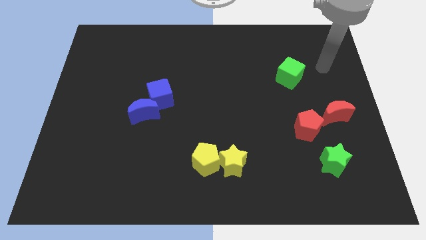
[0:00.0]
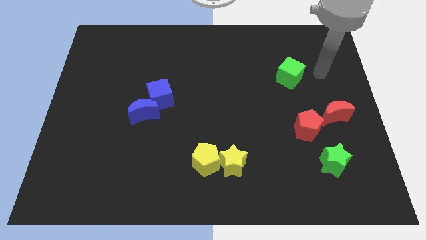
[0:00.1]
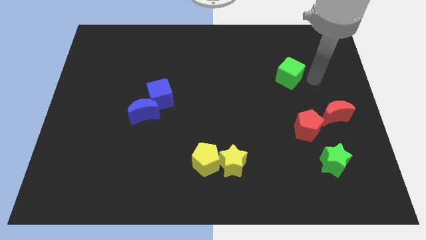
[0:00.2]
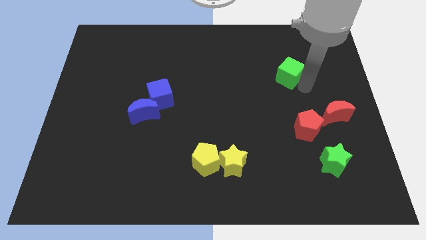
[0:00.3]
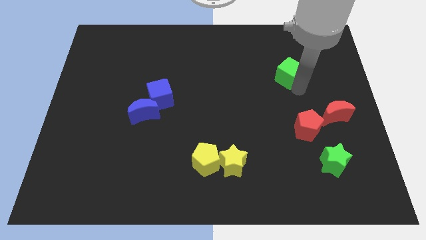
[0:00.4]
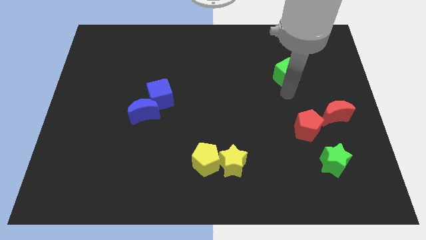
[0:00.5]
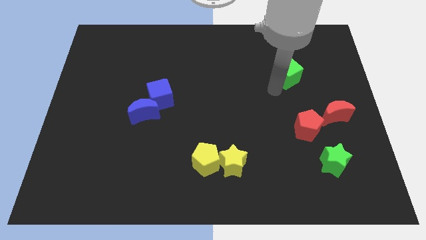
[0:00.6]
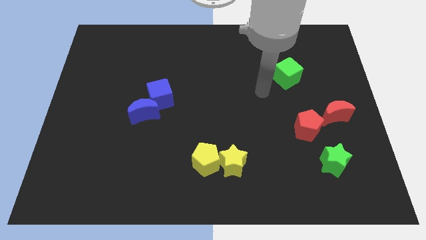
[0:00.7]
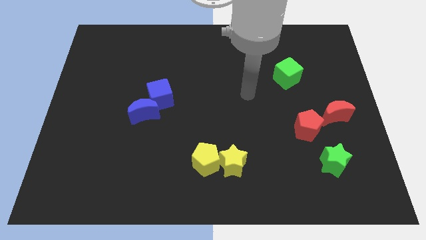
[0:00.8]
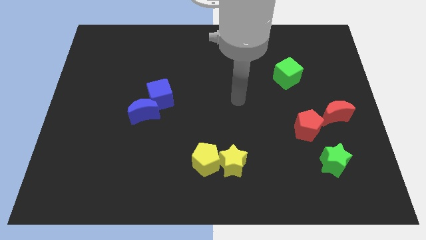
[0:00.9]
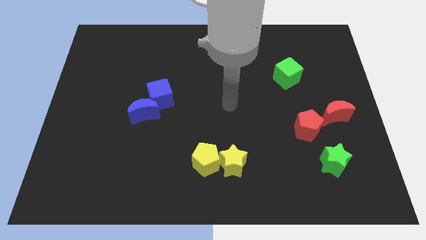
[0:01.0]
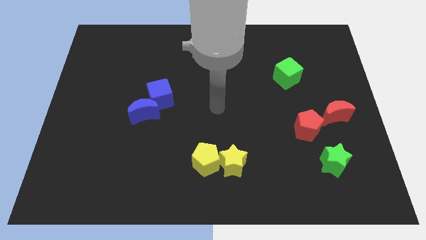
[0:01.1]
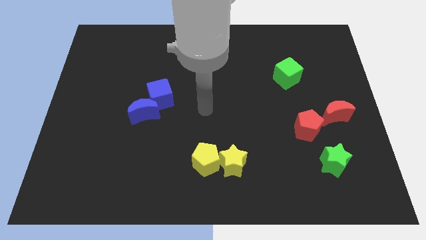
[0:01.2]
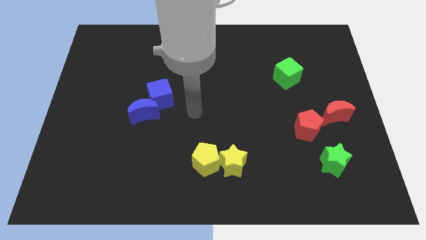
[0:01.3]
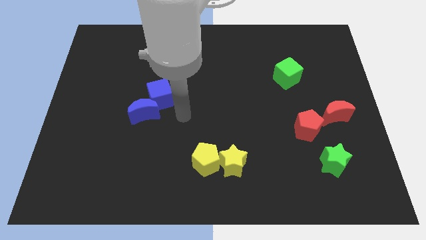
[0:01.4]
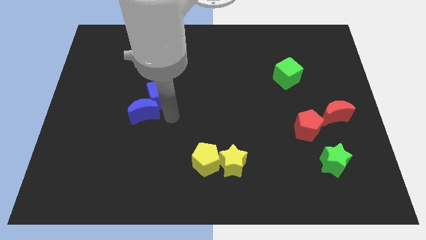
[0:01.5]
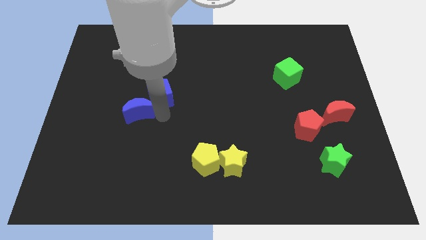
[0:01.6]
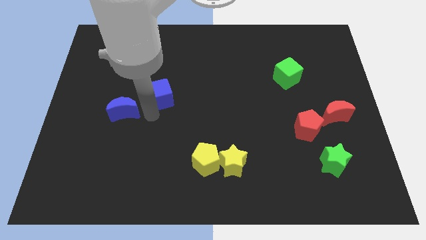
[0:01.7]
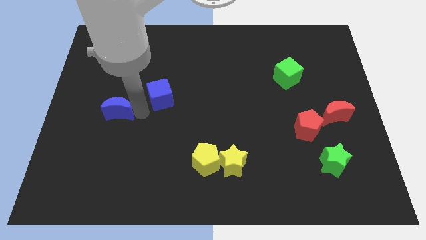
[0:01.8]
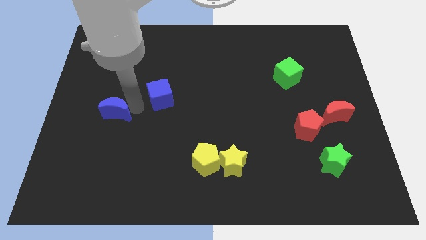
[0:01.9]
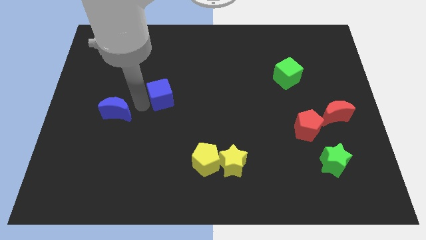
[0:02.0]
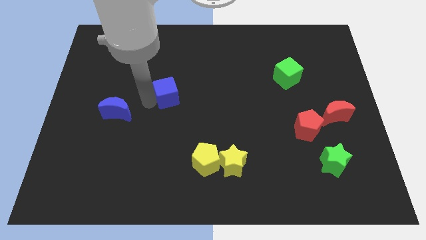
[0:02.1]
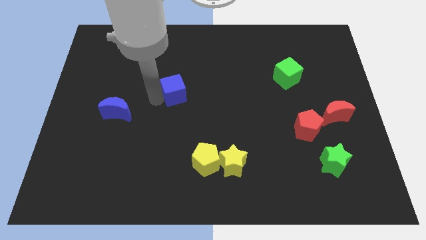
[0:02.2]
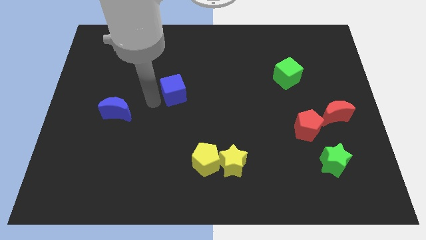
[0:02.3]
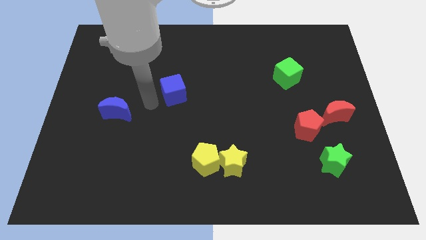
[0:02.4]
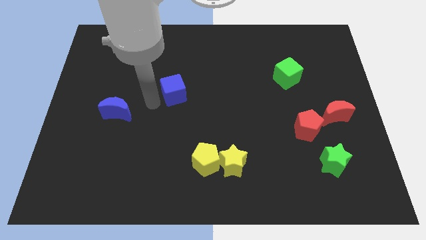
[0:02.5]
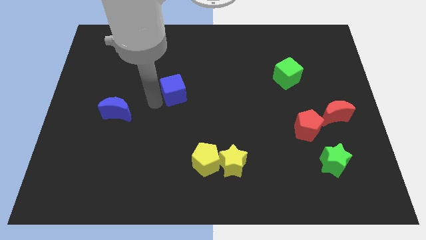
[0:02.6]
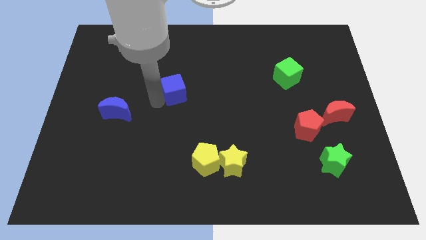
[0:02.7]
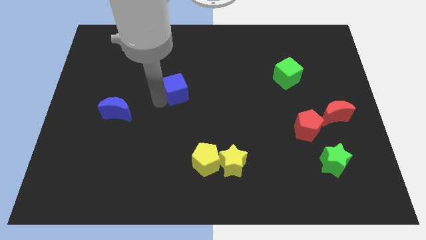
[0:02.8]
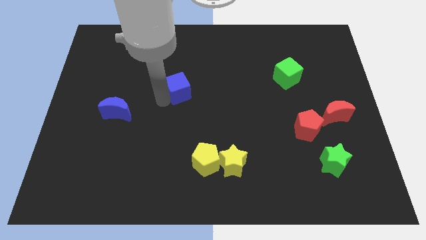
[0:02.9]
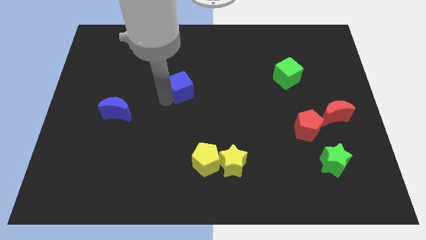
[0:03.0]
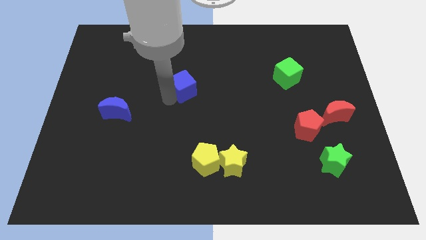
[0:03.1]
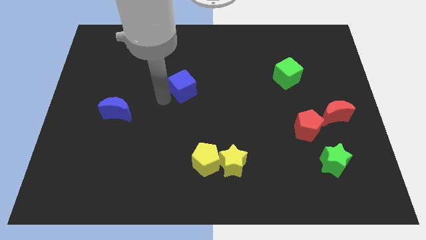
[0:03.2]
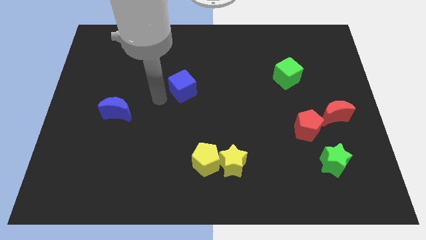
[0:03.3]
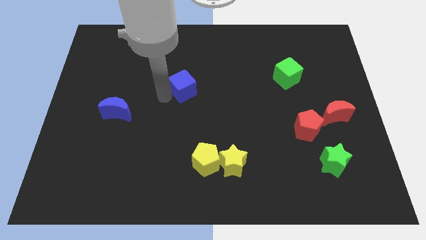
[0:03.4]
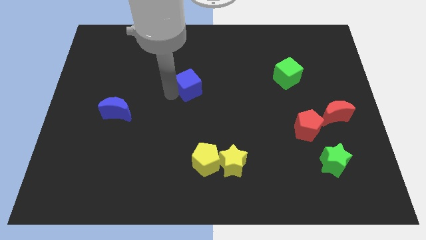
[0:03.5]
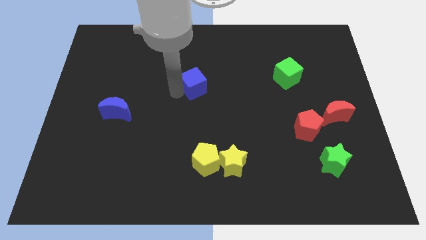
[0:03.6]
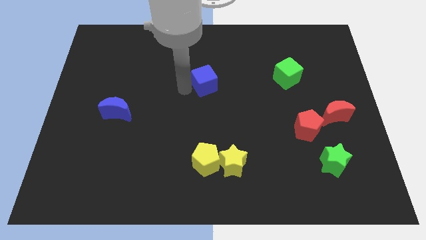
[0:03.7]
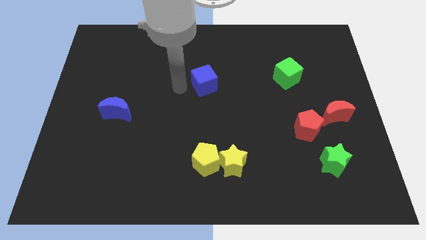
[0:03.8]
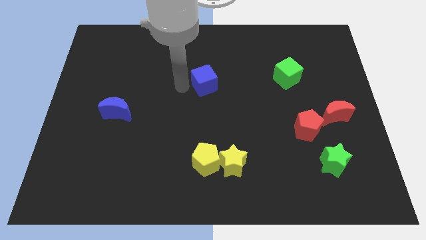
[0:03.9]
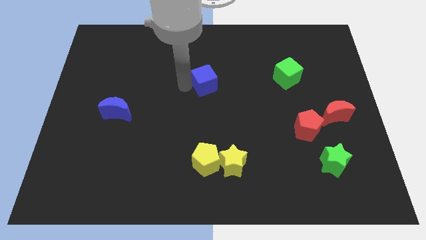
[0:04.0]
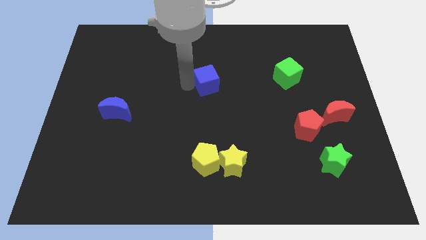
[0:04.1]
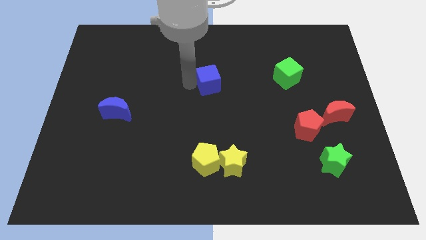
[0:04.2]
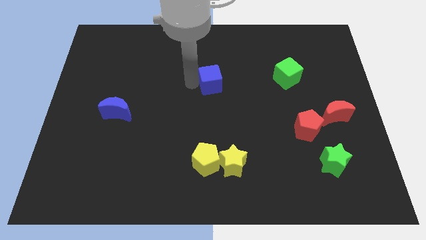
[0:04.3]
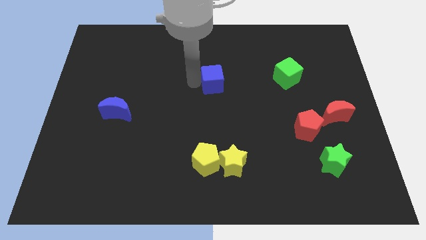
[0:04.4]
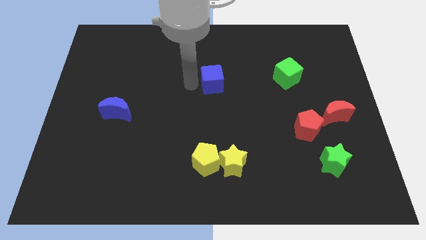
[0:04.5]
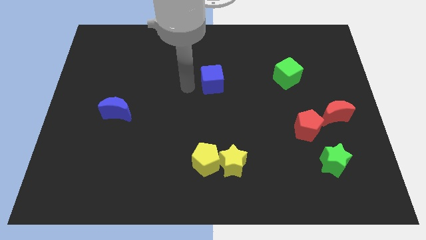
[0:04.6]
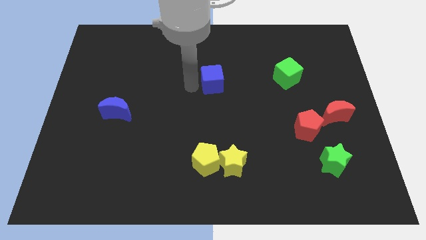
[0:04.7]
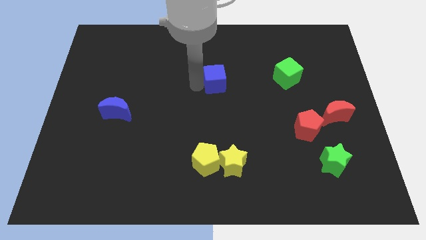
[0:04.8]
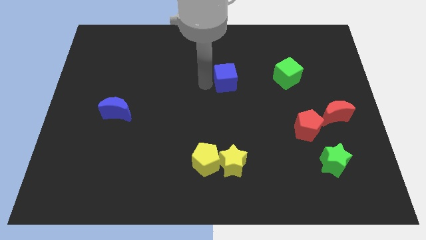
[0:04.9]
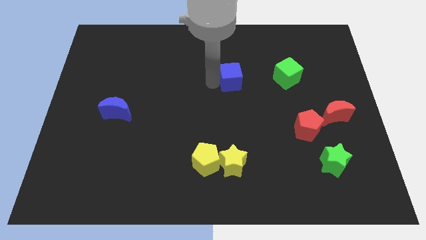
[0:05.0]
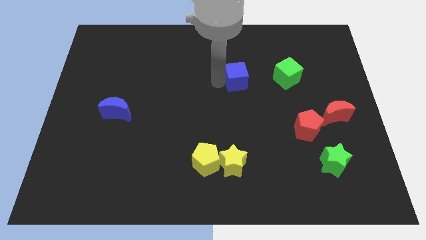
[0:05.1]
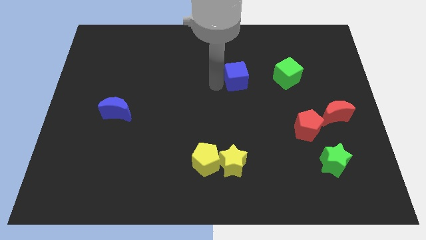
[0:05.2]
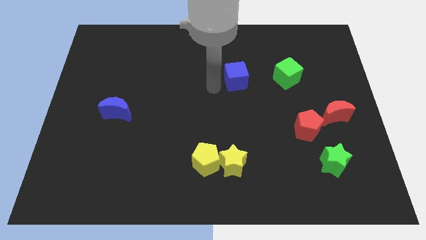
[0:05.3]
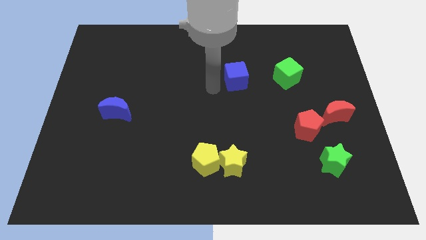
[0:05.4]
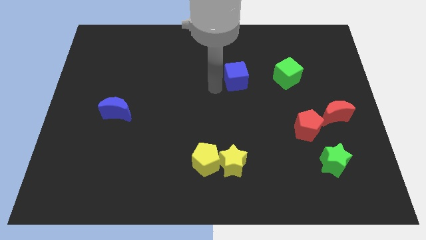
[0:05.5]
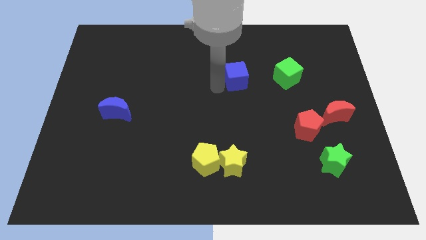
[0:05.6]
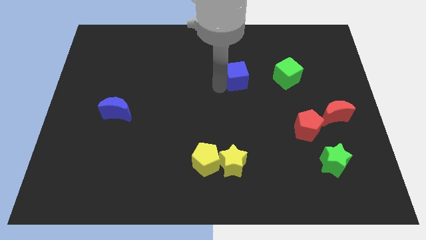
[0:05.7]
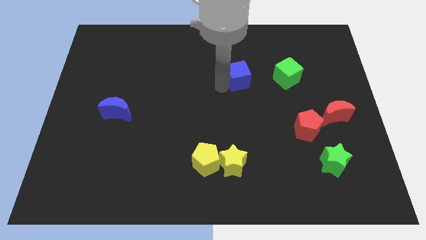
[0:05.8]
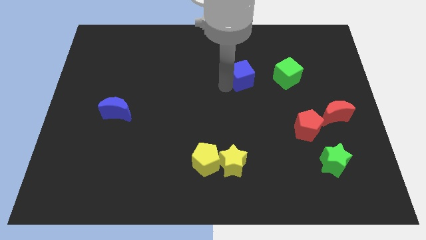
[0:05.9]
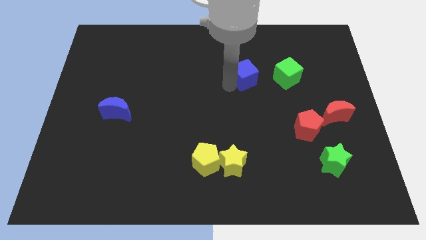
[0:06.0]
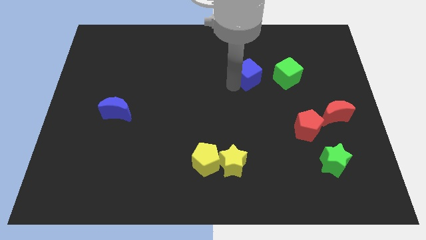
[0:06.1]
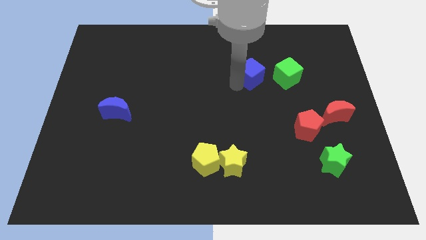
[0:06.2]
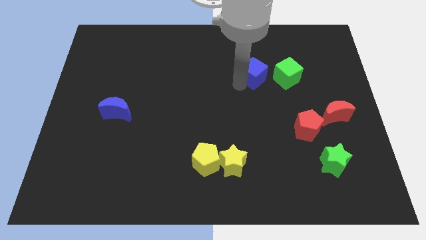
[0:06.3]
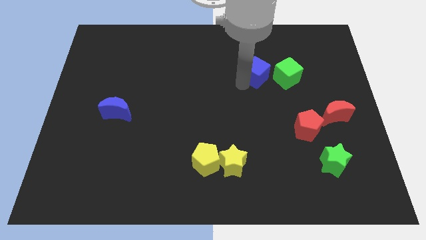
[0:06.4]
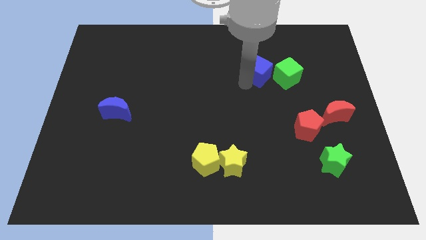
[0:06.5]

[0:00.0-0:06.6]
push the blue cube to the top left side of the green cube

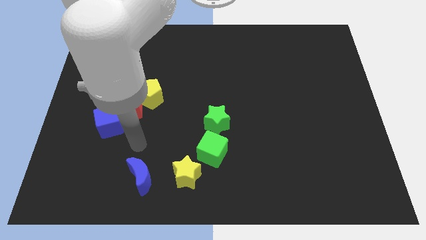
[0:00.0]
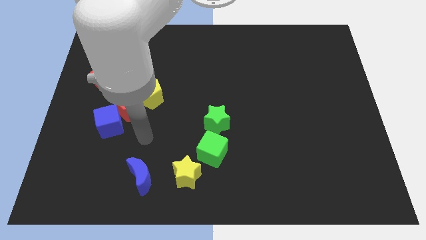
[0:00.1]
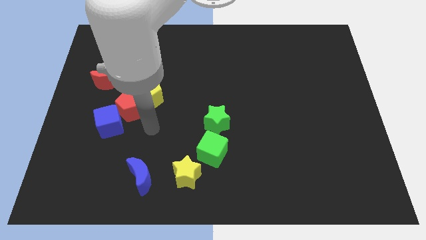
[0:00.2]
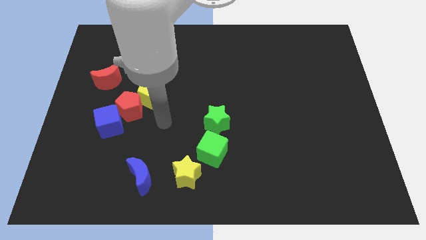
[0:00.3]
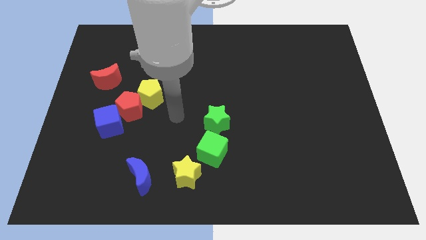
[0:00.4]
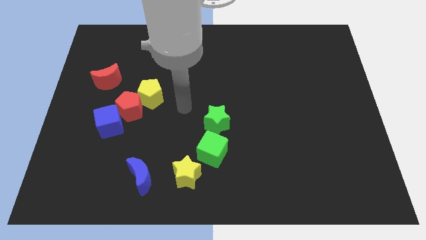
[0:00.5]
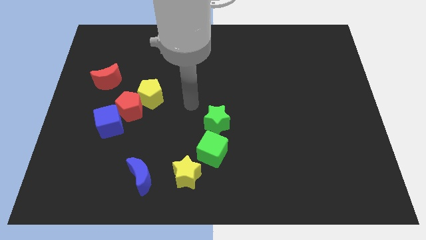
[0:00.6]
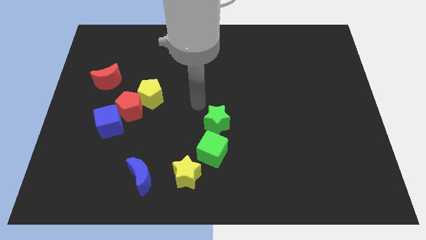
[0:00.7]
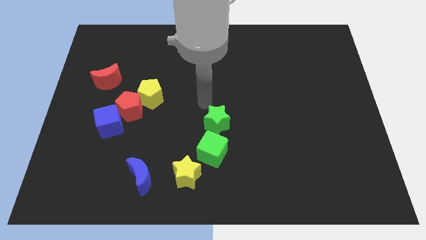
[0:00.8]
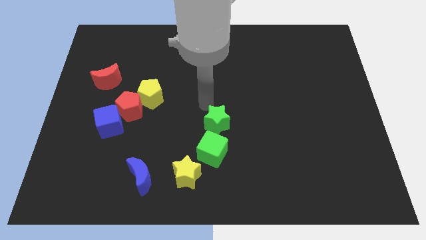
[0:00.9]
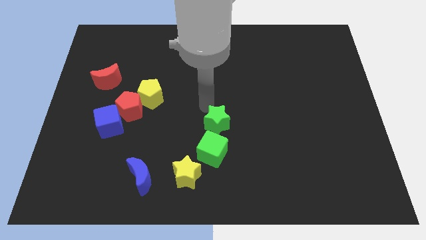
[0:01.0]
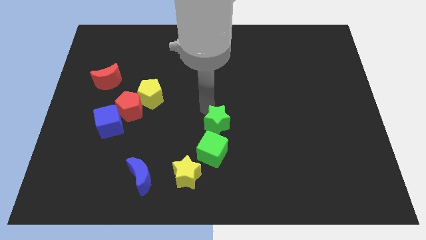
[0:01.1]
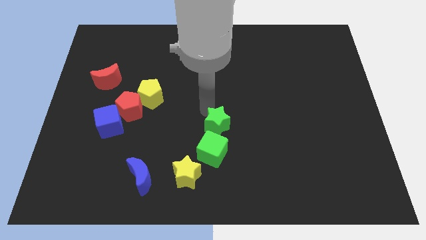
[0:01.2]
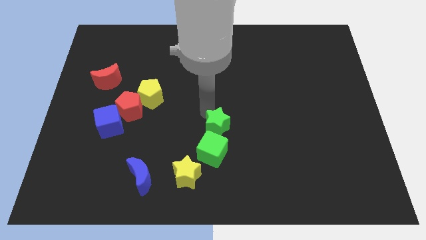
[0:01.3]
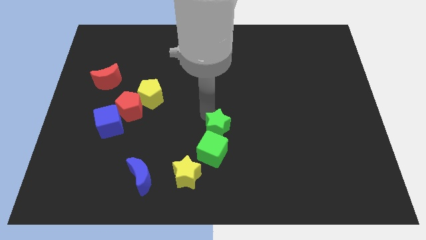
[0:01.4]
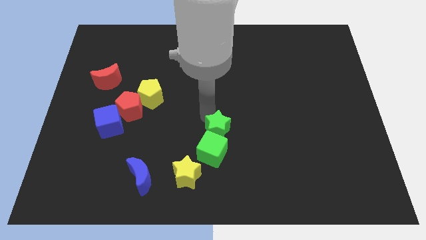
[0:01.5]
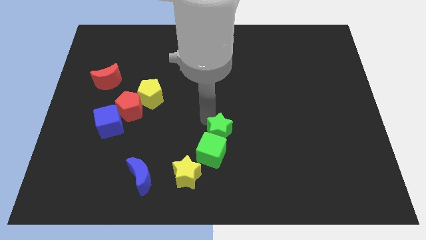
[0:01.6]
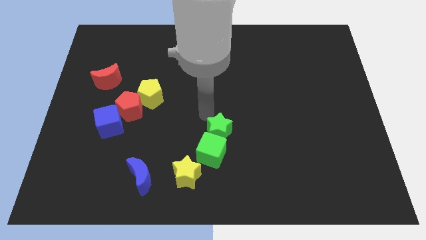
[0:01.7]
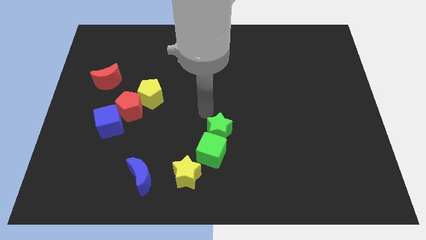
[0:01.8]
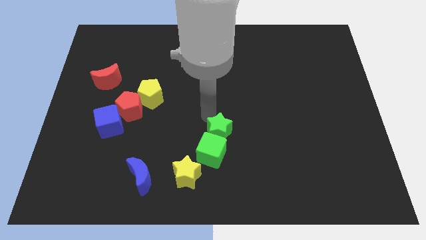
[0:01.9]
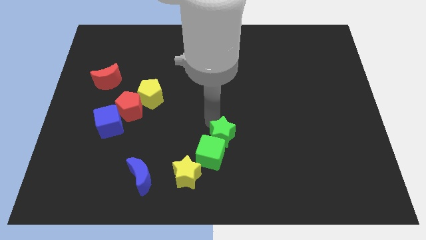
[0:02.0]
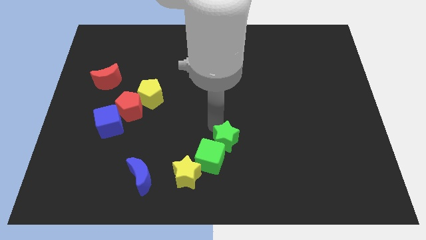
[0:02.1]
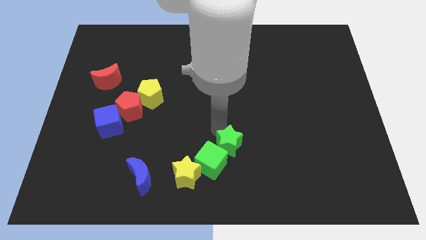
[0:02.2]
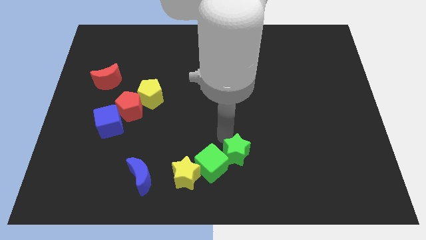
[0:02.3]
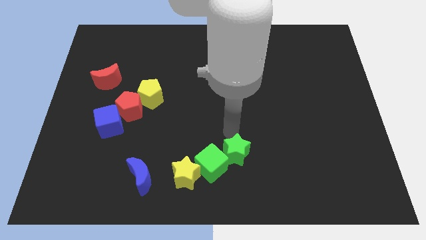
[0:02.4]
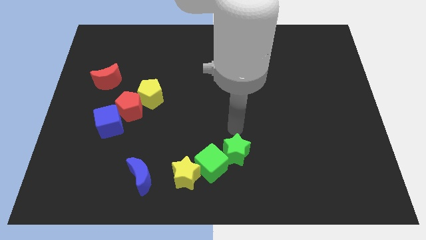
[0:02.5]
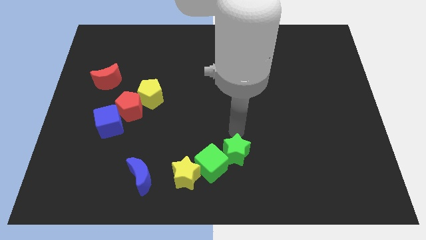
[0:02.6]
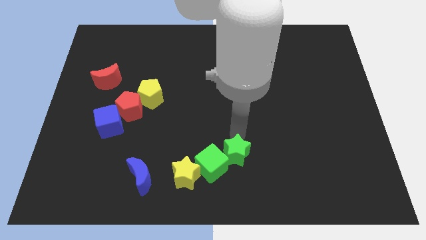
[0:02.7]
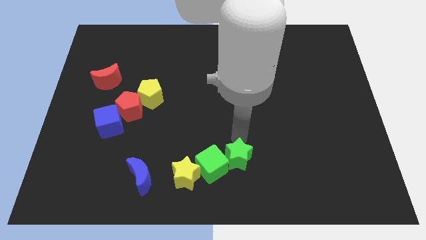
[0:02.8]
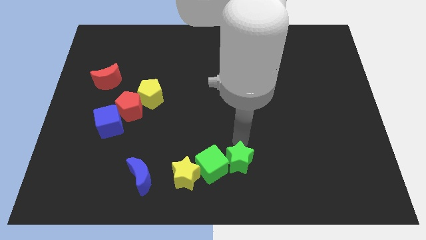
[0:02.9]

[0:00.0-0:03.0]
put the green star diagonally down and to the right of the green cube
